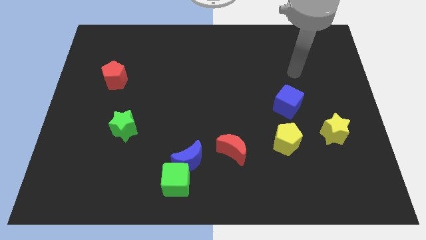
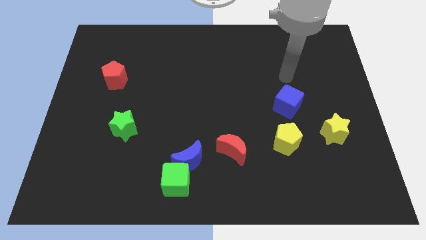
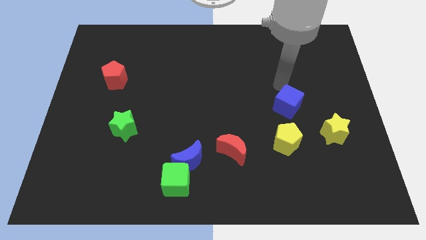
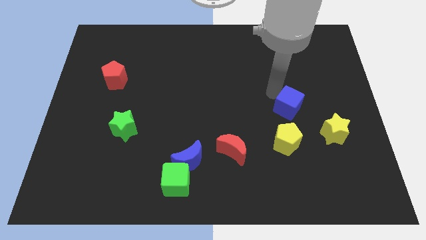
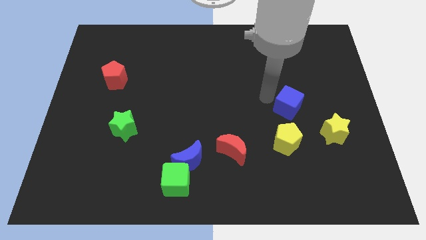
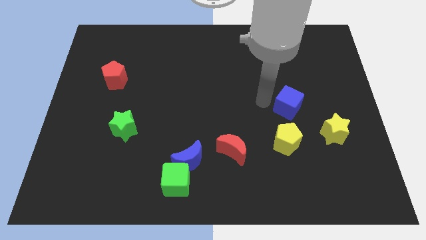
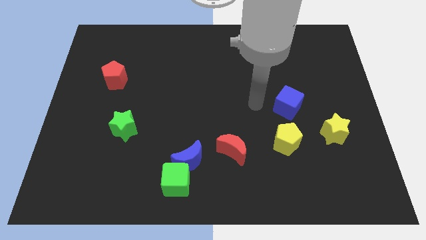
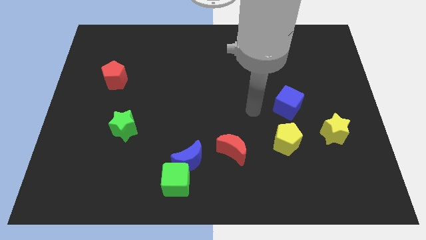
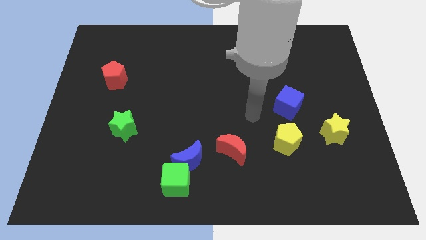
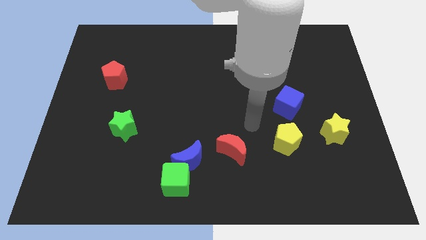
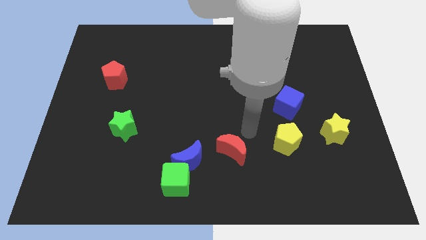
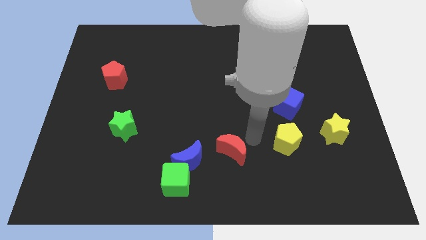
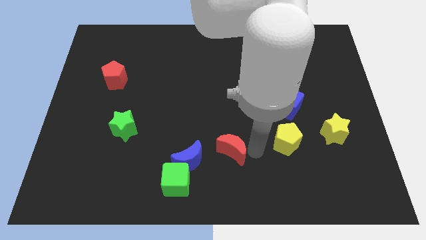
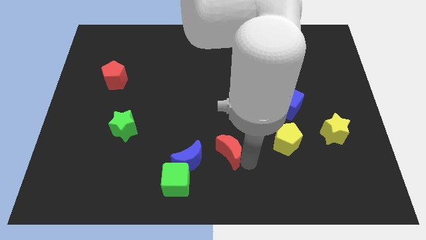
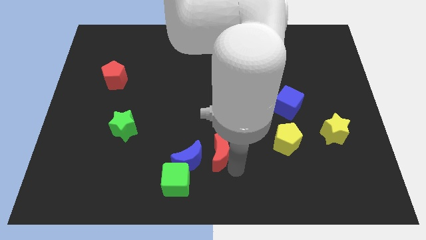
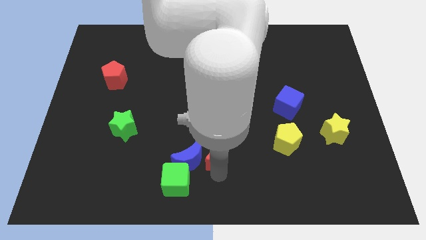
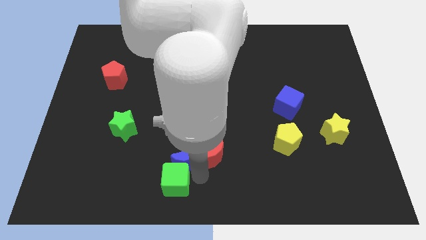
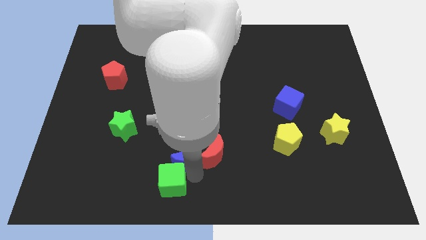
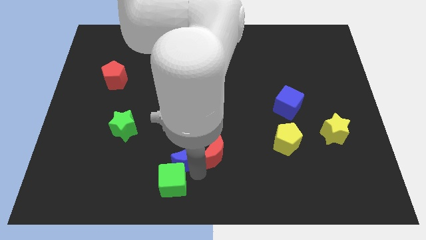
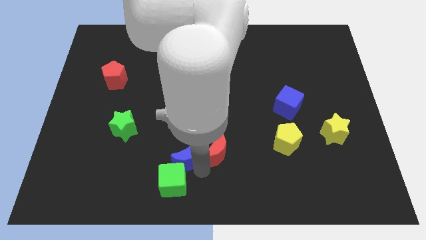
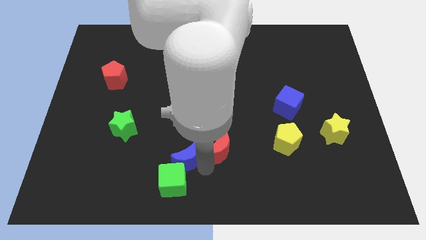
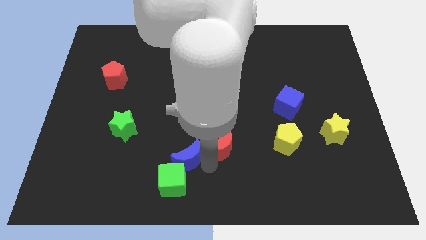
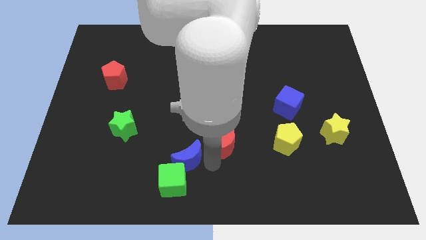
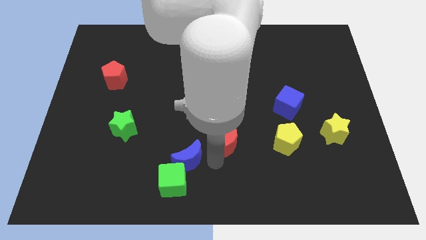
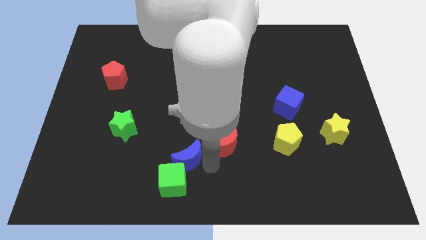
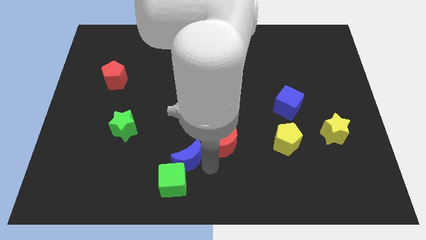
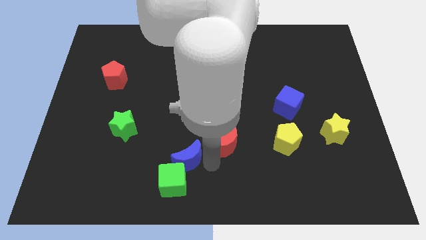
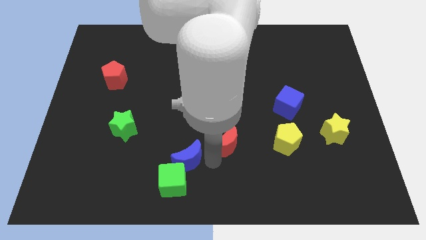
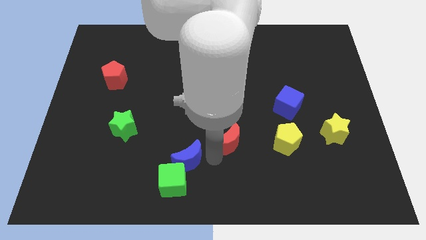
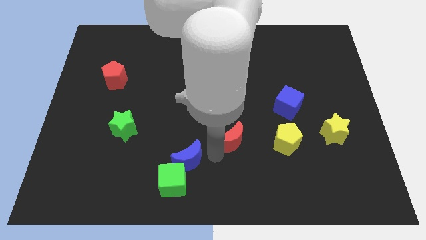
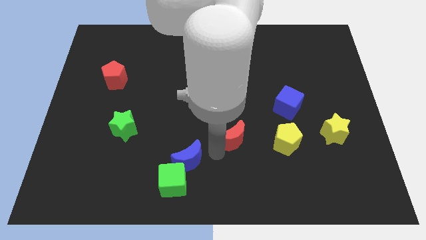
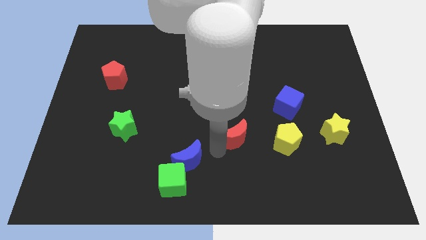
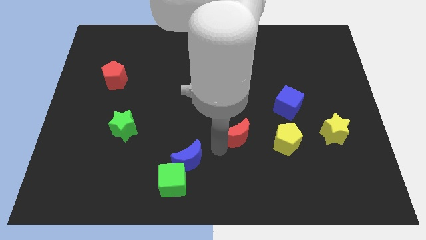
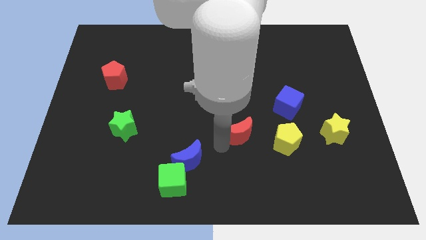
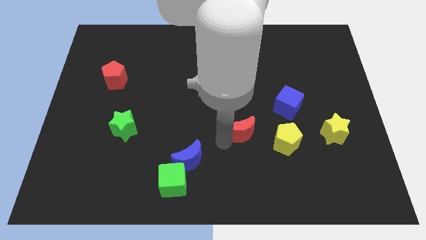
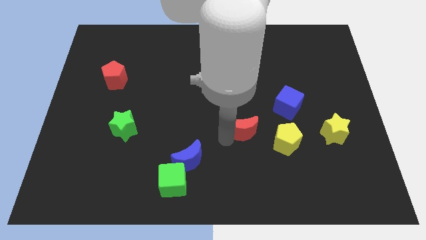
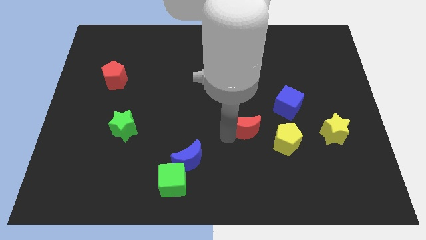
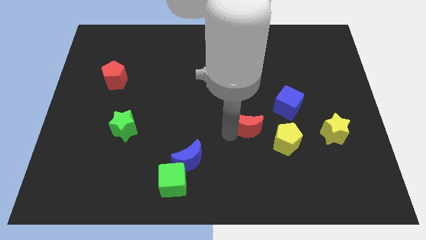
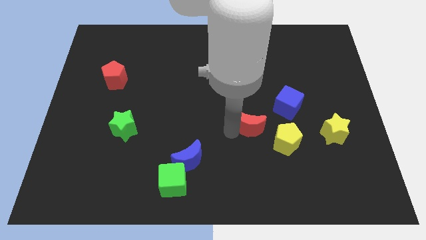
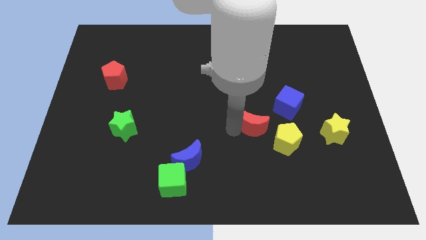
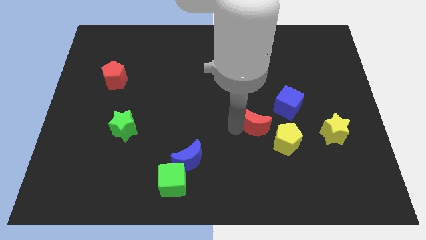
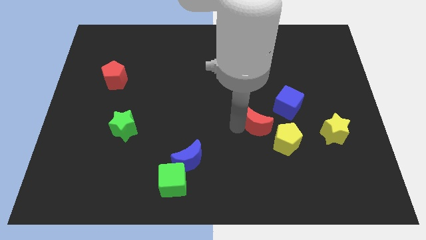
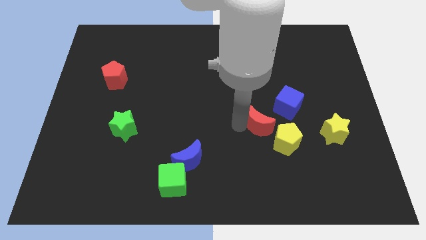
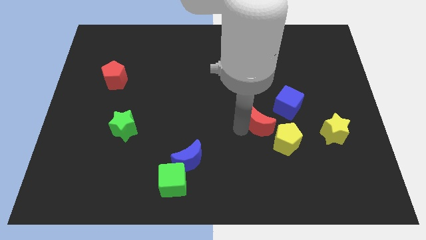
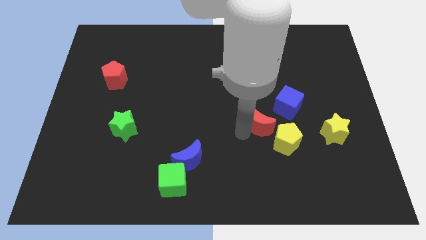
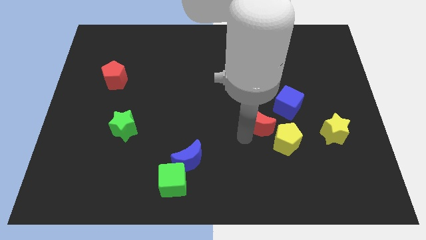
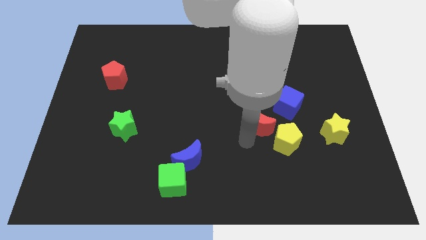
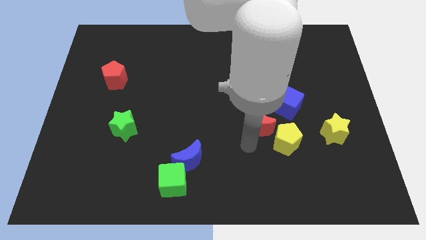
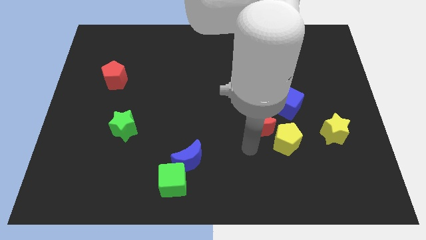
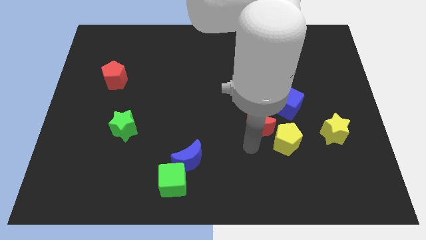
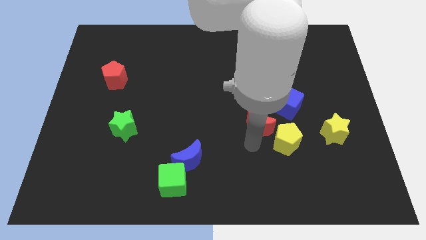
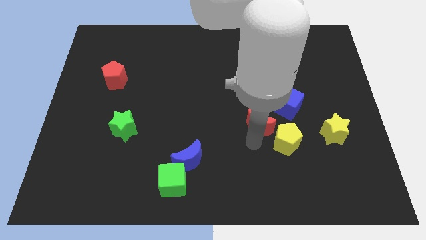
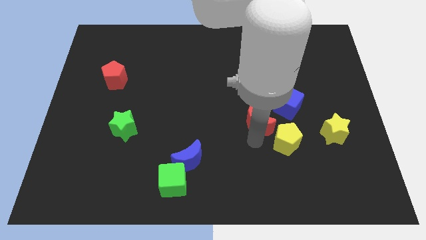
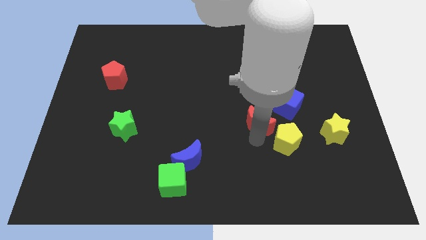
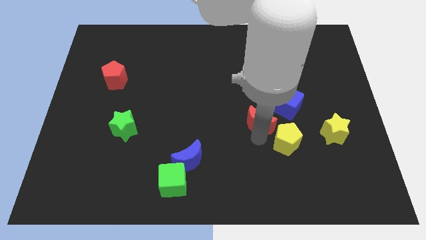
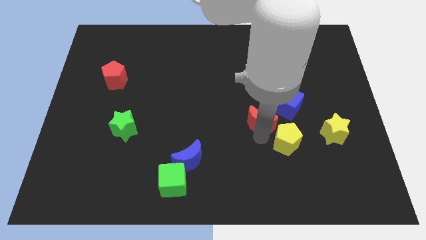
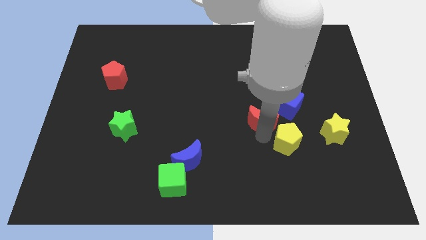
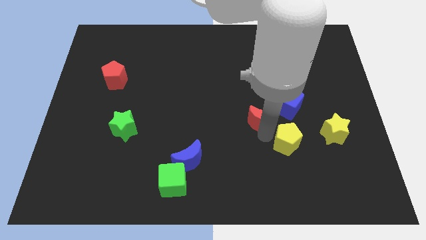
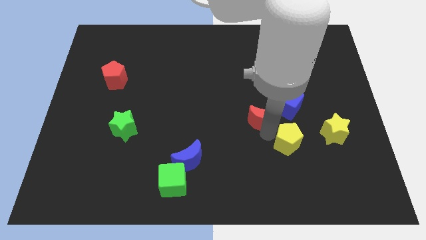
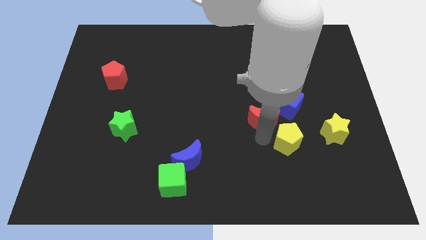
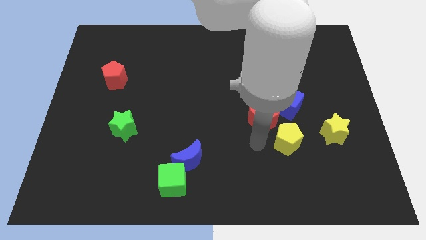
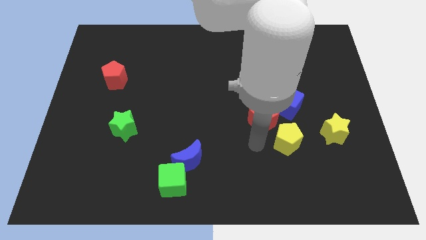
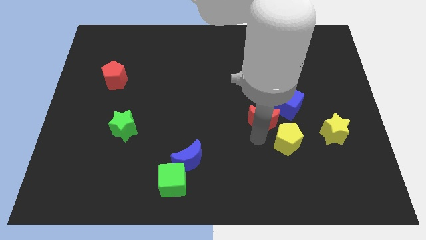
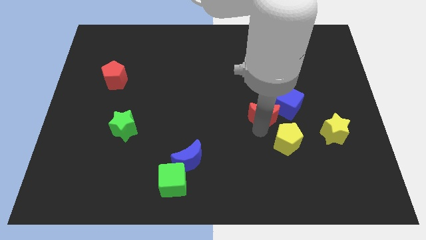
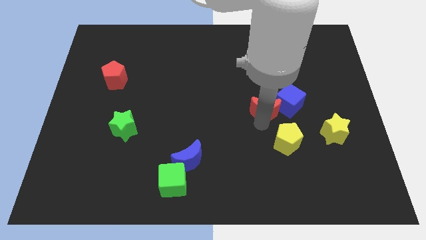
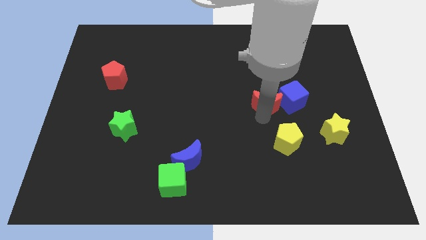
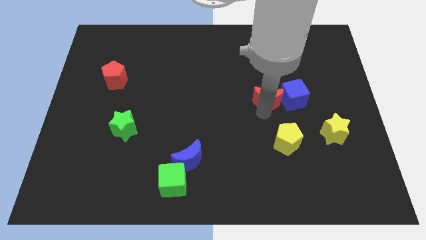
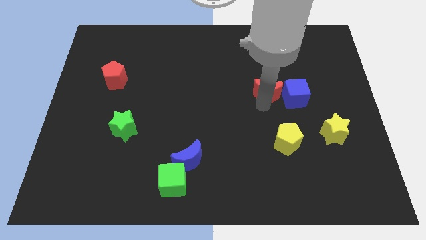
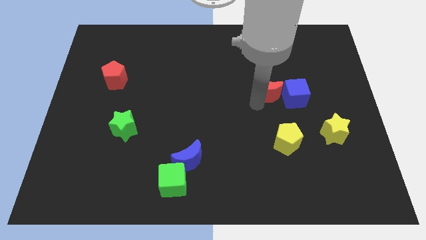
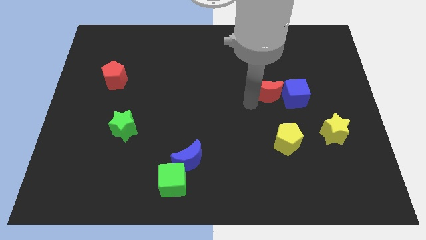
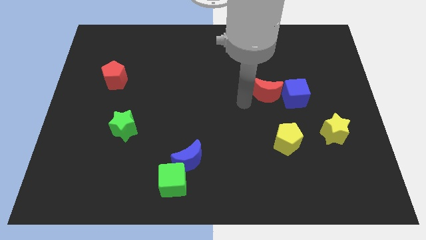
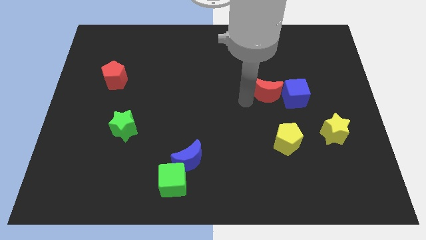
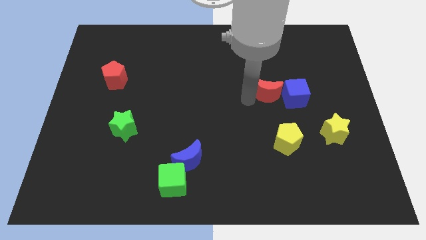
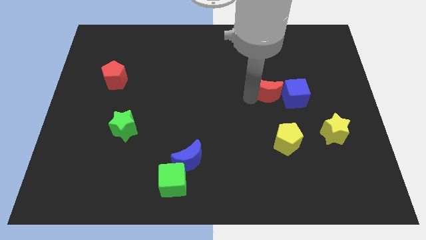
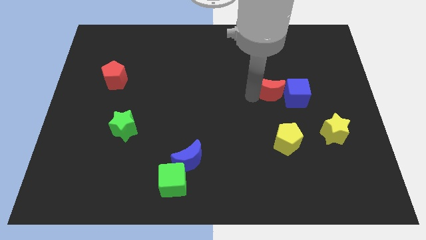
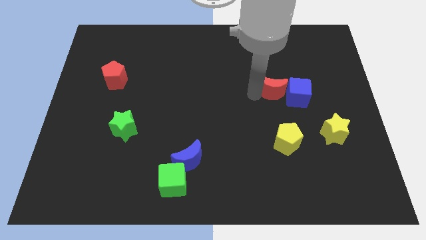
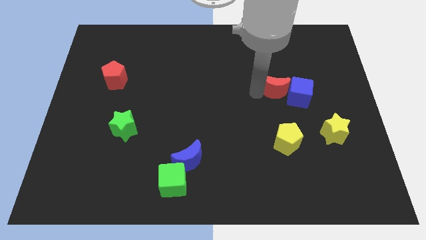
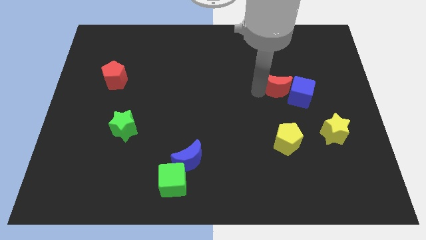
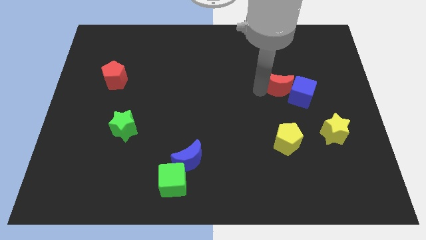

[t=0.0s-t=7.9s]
push the red moon upwards and then right
